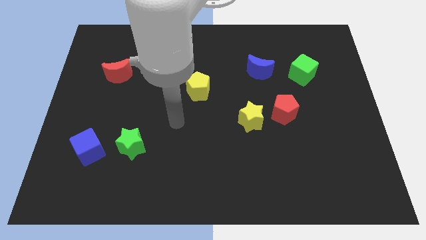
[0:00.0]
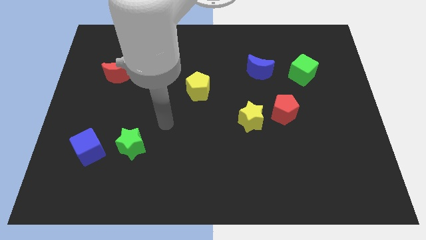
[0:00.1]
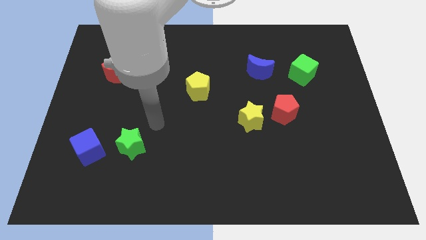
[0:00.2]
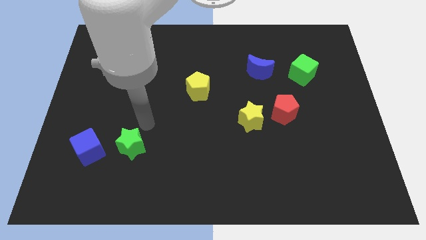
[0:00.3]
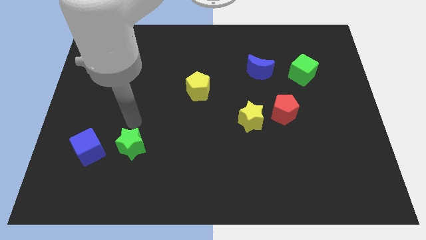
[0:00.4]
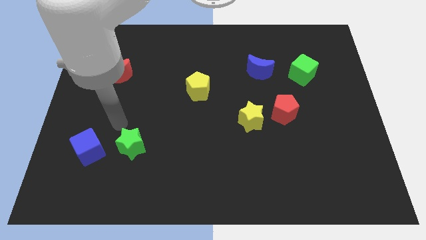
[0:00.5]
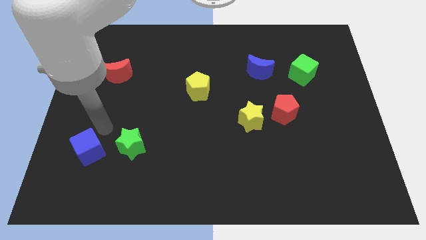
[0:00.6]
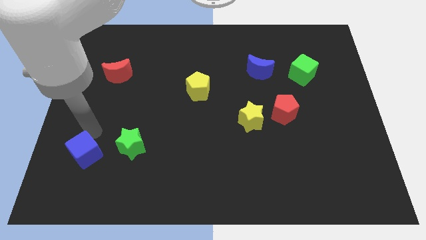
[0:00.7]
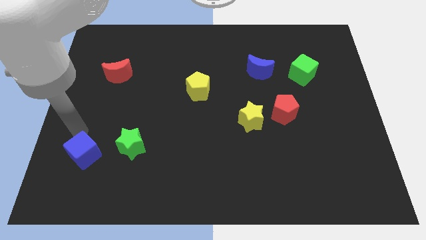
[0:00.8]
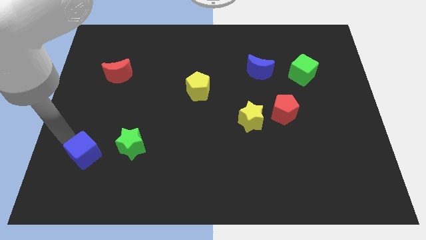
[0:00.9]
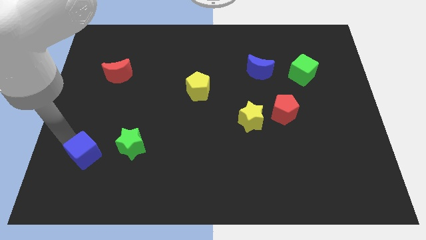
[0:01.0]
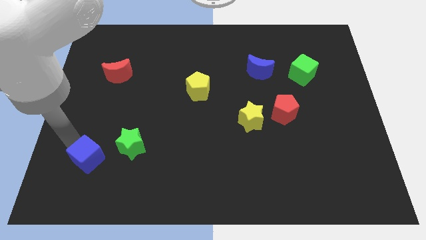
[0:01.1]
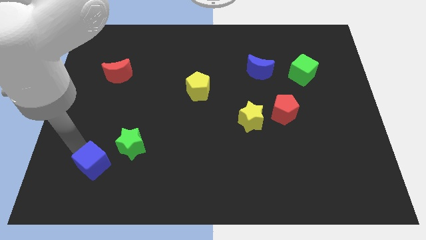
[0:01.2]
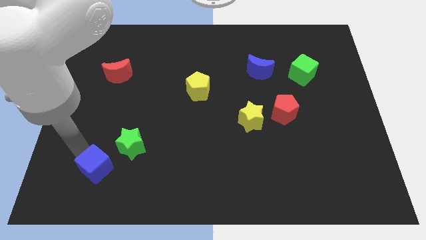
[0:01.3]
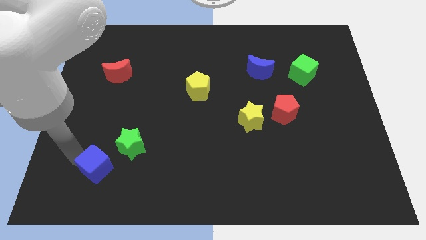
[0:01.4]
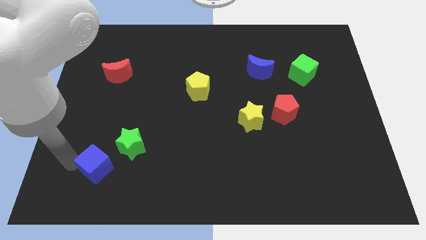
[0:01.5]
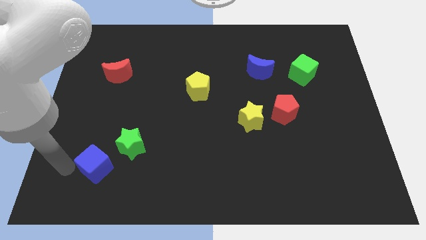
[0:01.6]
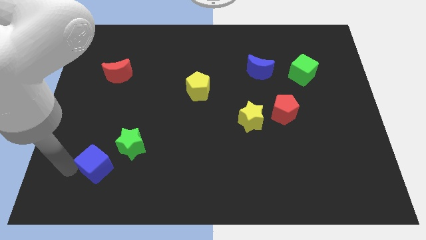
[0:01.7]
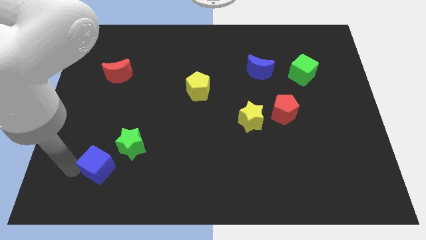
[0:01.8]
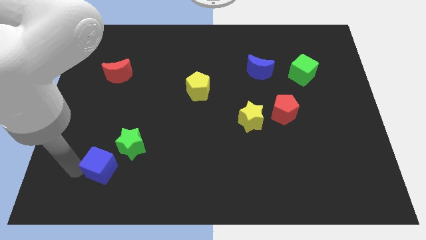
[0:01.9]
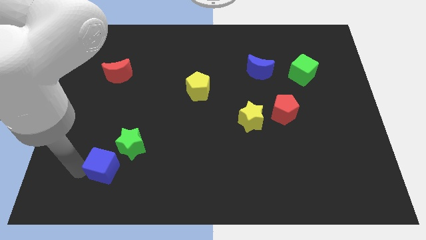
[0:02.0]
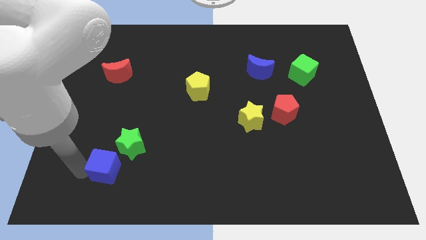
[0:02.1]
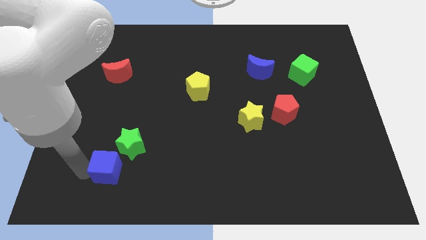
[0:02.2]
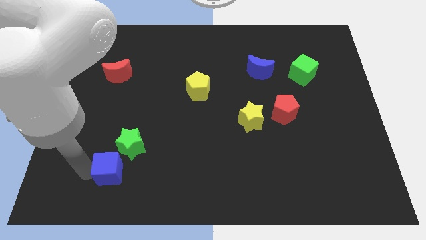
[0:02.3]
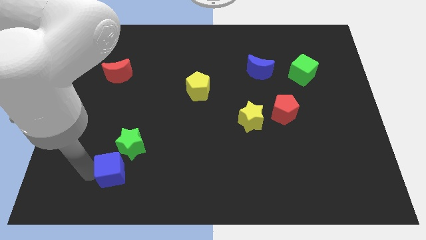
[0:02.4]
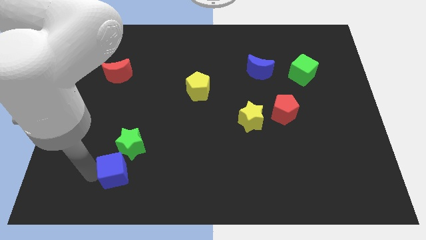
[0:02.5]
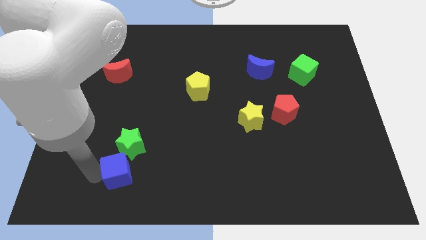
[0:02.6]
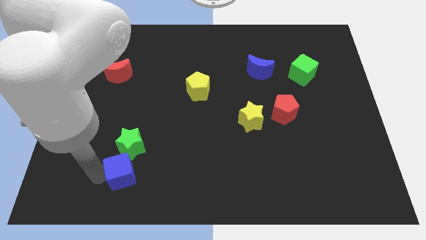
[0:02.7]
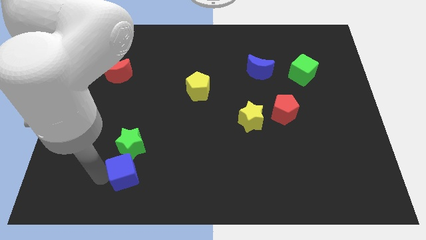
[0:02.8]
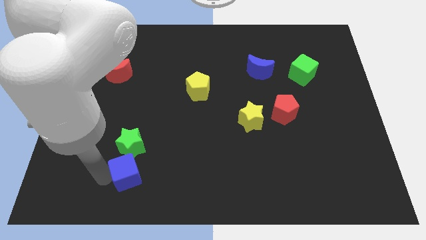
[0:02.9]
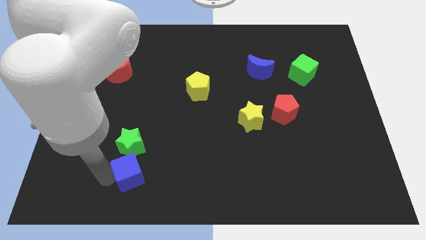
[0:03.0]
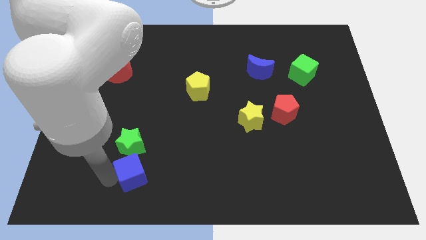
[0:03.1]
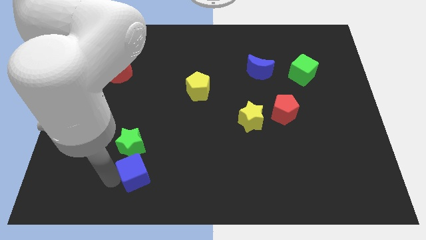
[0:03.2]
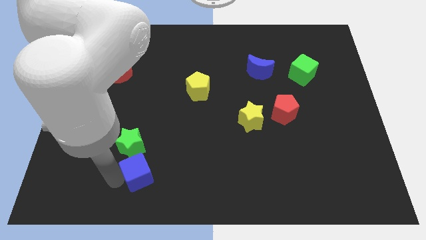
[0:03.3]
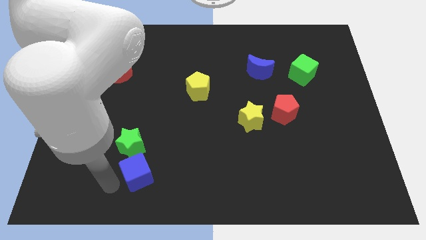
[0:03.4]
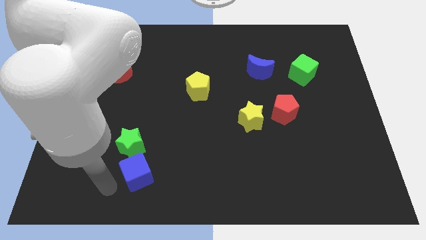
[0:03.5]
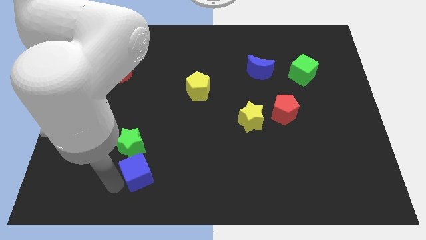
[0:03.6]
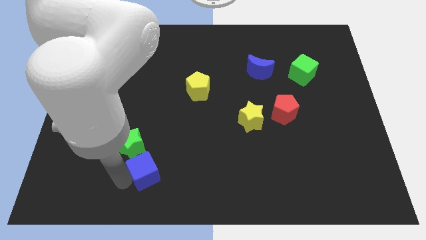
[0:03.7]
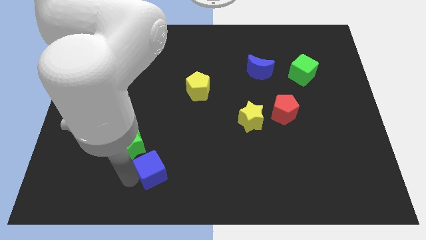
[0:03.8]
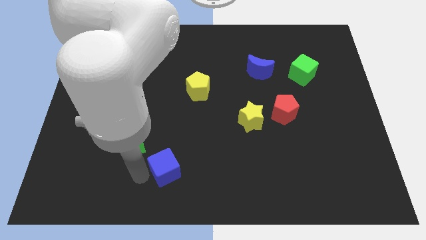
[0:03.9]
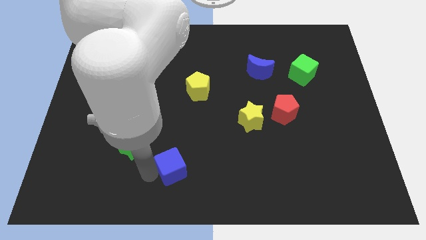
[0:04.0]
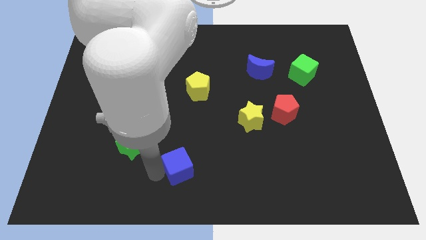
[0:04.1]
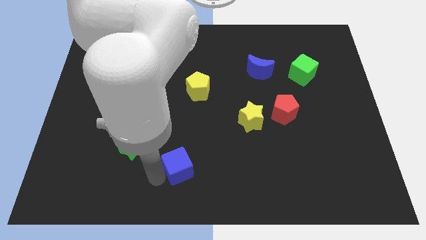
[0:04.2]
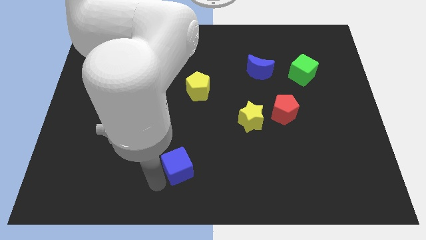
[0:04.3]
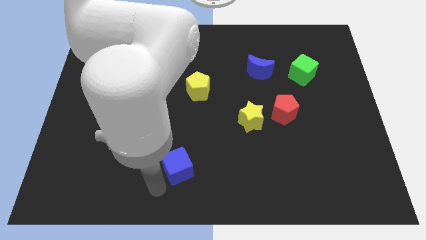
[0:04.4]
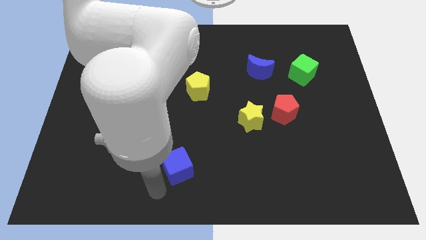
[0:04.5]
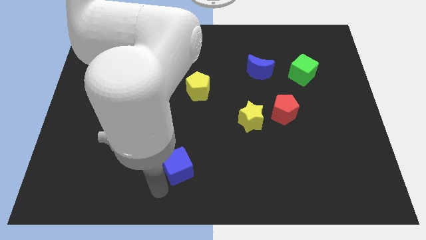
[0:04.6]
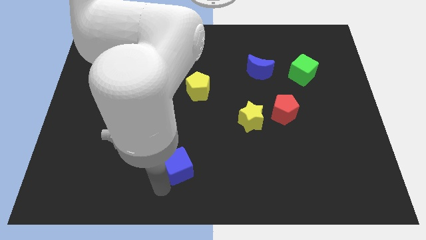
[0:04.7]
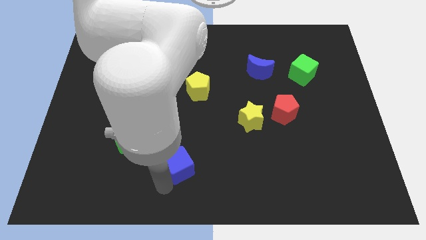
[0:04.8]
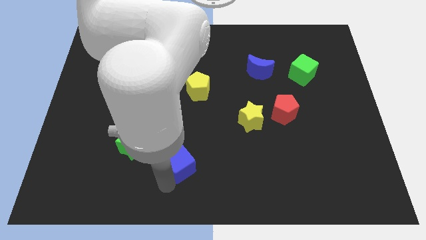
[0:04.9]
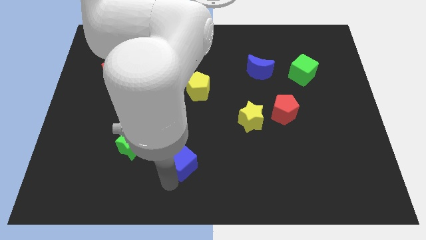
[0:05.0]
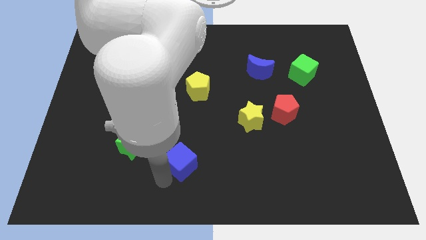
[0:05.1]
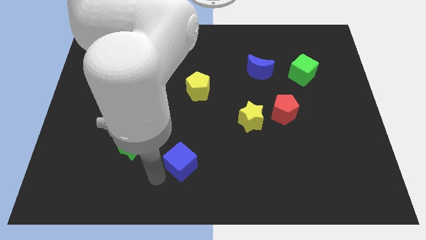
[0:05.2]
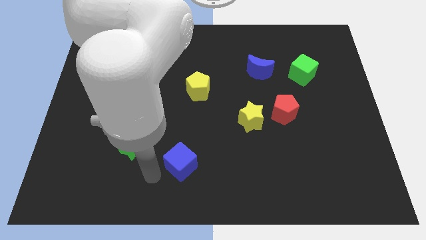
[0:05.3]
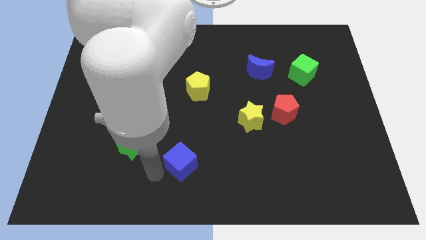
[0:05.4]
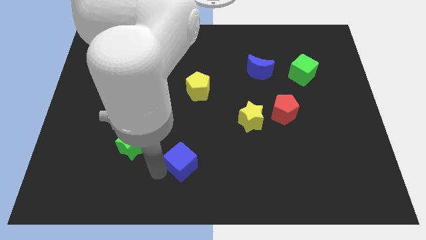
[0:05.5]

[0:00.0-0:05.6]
push the blue cube to the right

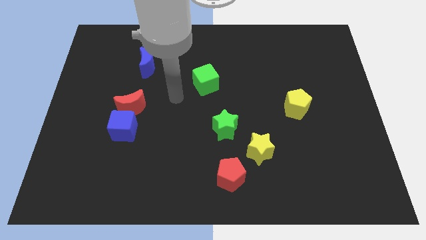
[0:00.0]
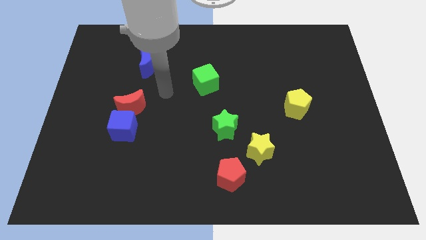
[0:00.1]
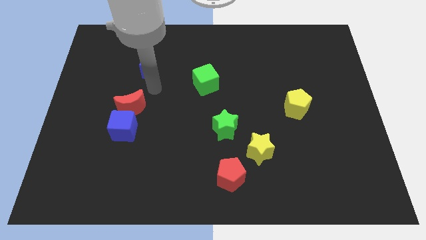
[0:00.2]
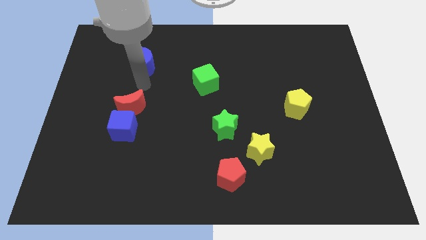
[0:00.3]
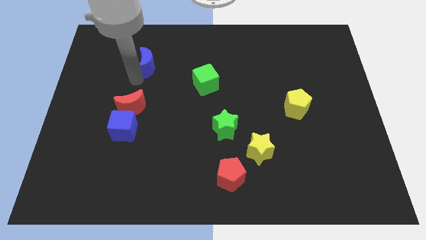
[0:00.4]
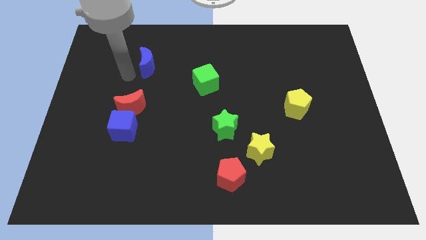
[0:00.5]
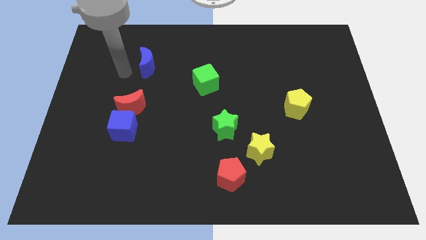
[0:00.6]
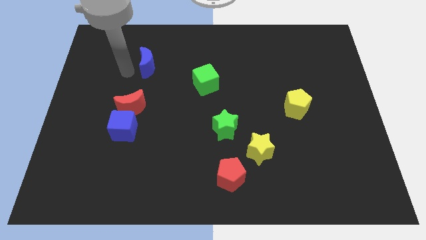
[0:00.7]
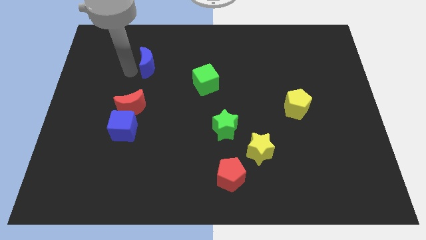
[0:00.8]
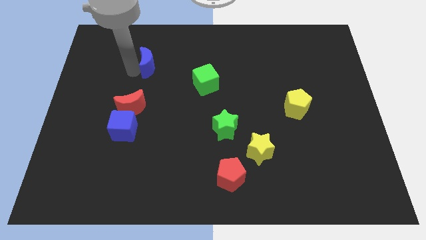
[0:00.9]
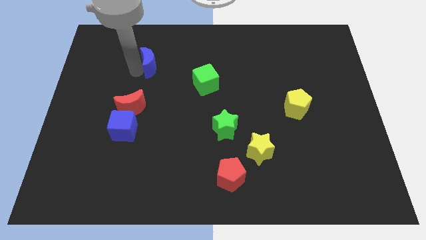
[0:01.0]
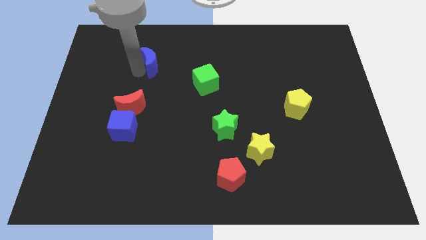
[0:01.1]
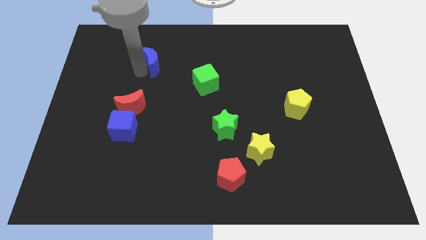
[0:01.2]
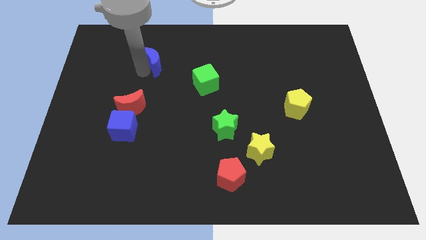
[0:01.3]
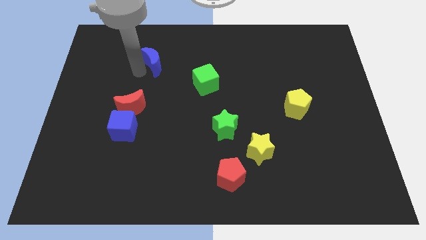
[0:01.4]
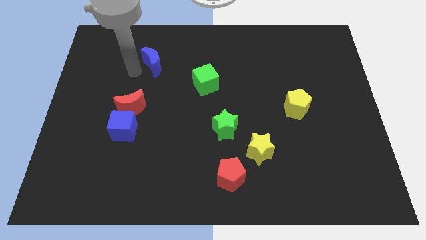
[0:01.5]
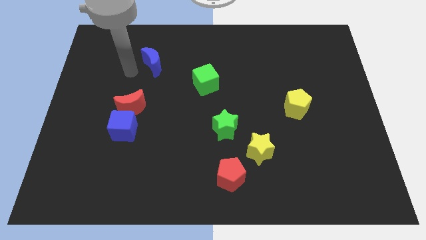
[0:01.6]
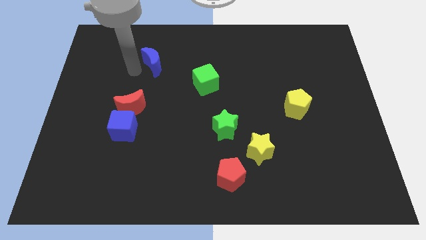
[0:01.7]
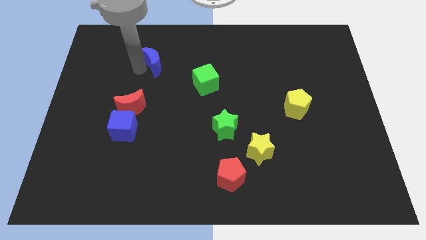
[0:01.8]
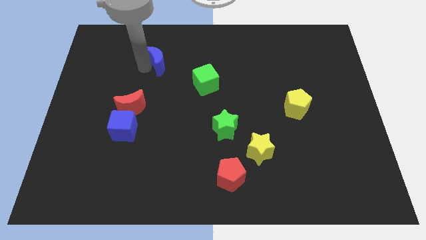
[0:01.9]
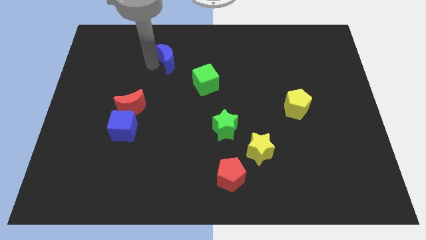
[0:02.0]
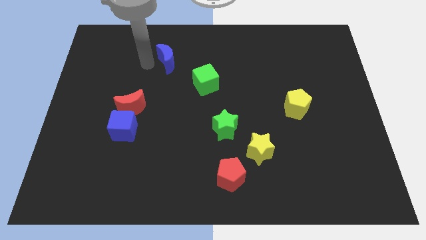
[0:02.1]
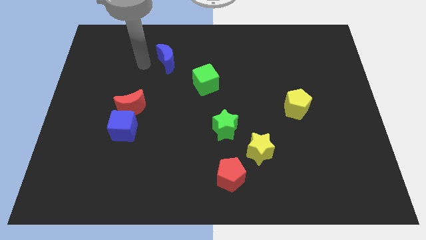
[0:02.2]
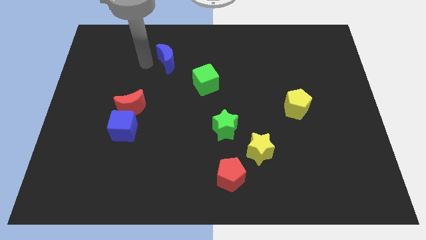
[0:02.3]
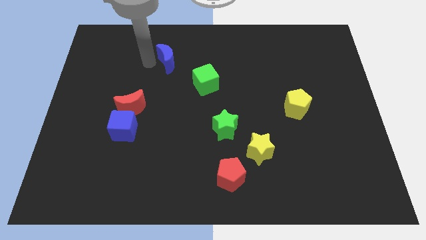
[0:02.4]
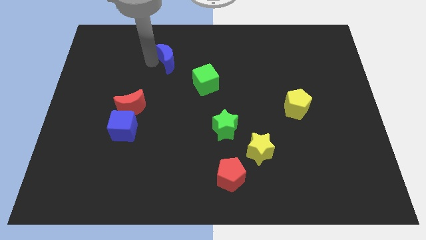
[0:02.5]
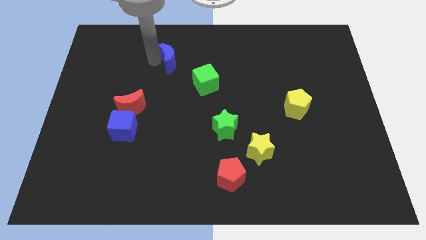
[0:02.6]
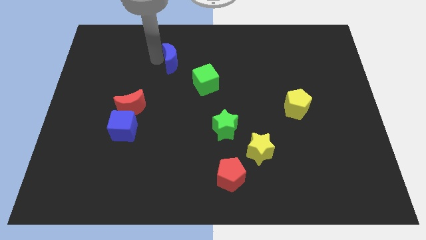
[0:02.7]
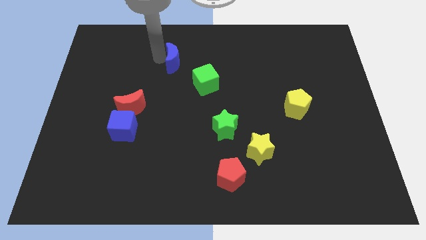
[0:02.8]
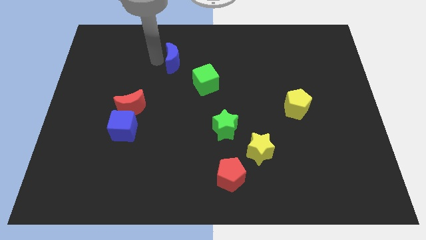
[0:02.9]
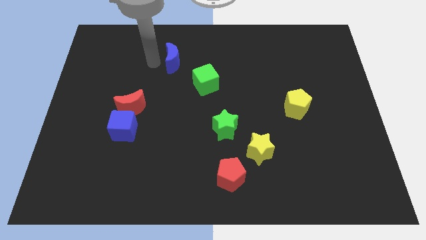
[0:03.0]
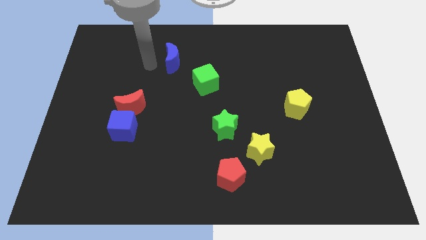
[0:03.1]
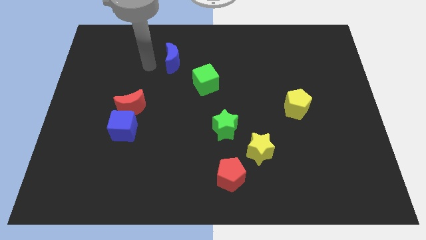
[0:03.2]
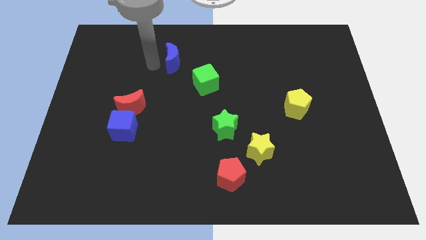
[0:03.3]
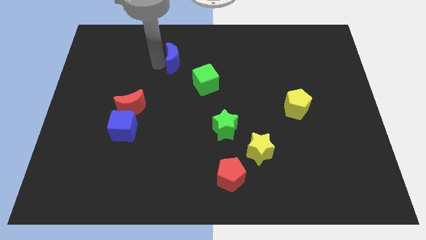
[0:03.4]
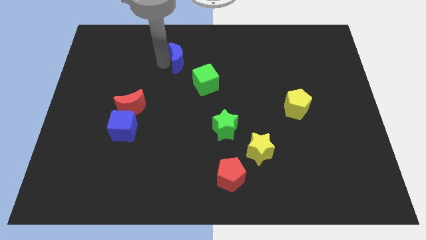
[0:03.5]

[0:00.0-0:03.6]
push the blue moon somewhat right
